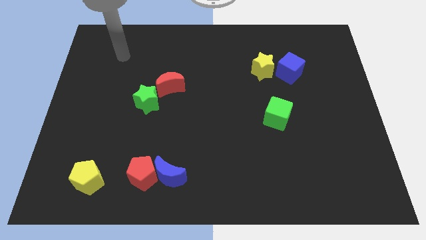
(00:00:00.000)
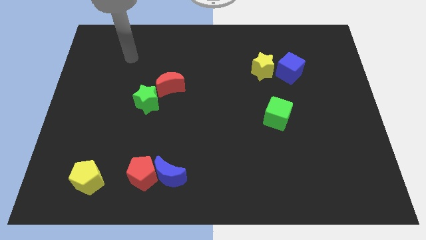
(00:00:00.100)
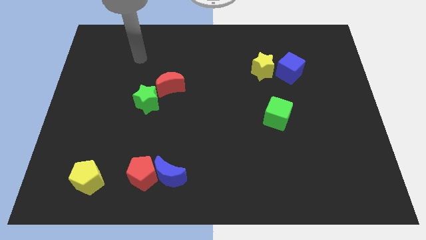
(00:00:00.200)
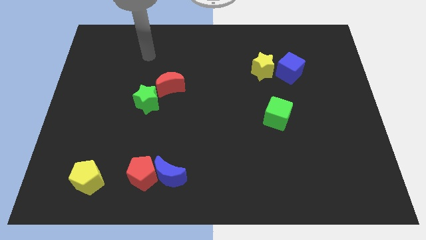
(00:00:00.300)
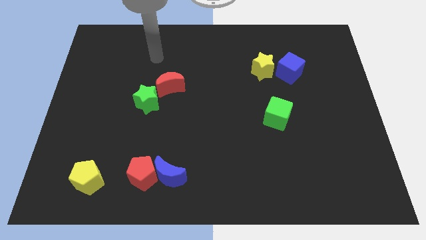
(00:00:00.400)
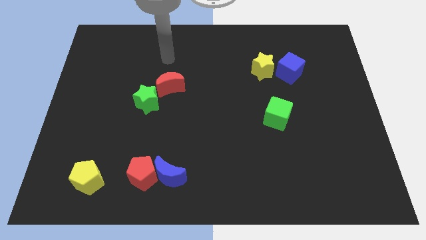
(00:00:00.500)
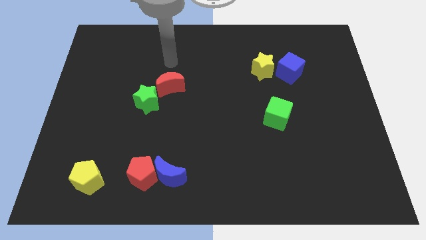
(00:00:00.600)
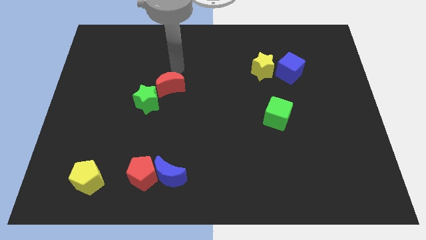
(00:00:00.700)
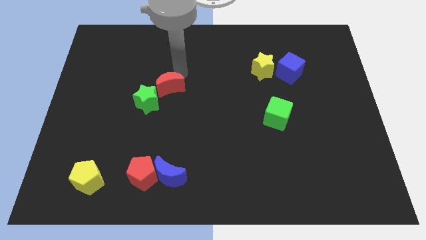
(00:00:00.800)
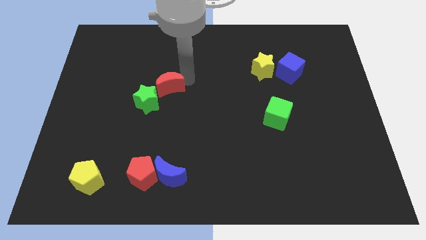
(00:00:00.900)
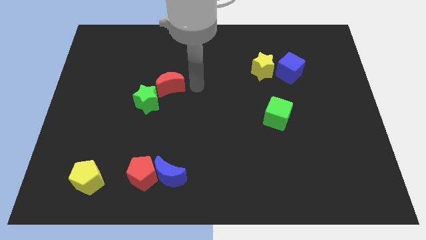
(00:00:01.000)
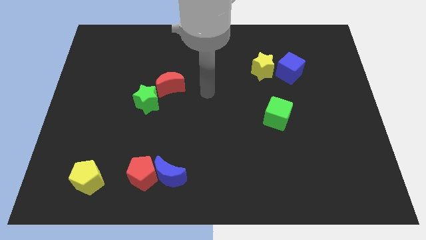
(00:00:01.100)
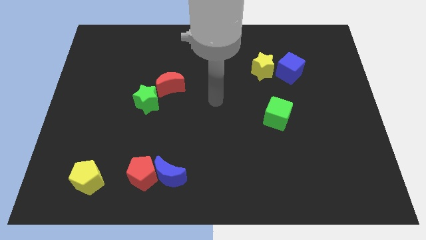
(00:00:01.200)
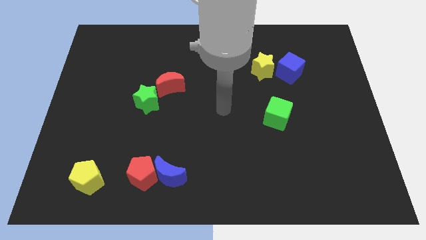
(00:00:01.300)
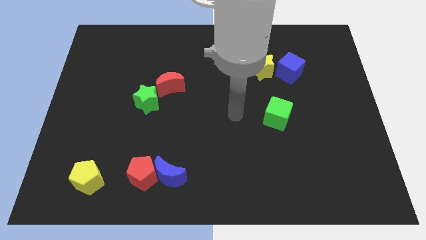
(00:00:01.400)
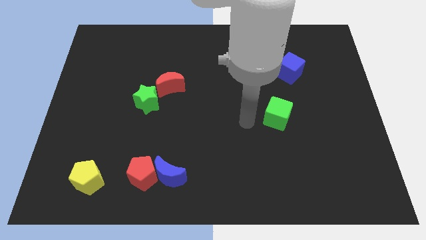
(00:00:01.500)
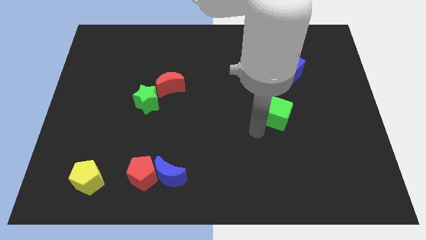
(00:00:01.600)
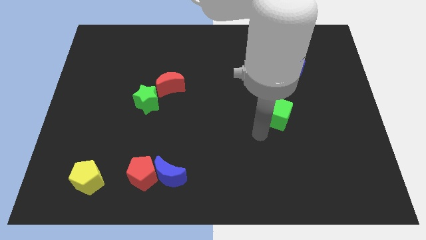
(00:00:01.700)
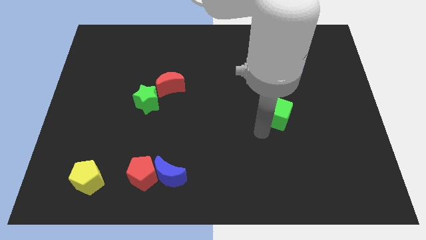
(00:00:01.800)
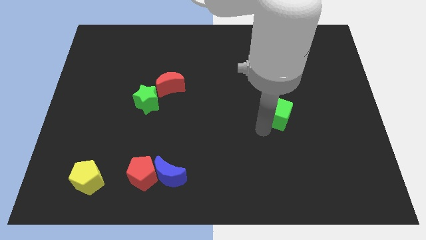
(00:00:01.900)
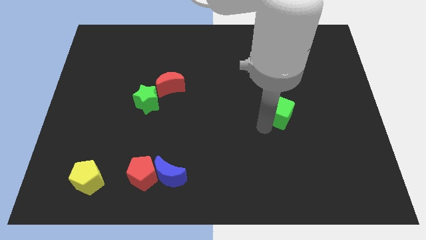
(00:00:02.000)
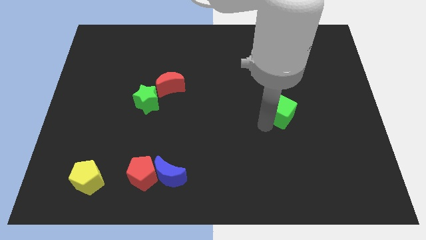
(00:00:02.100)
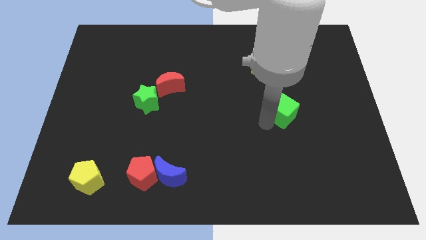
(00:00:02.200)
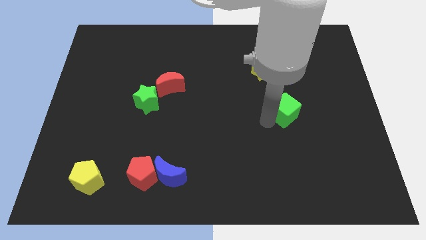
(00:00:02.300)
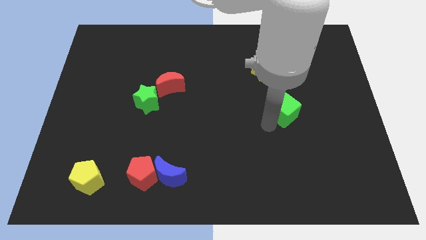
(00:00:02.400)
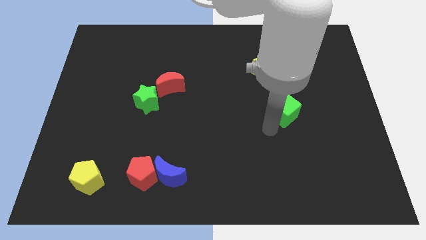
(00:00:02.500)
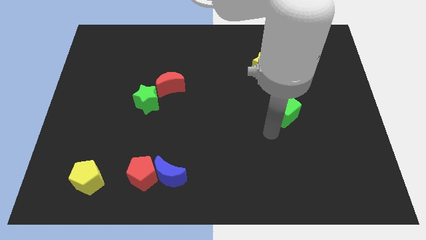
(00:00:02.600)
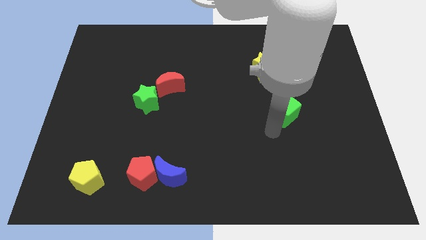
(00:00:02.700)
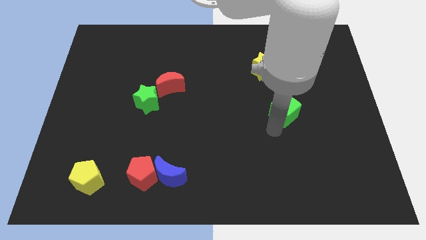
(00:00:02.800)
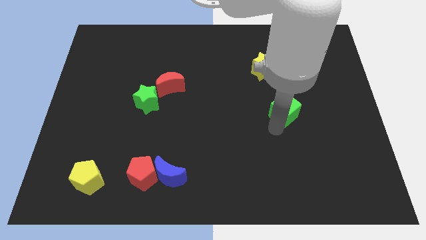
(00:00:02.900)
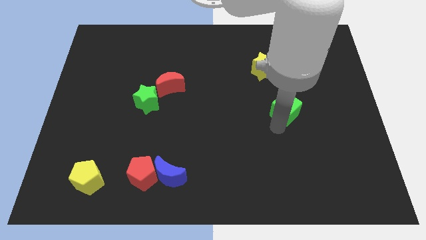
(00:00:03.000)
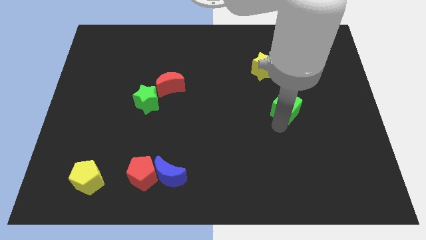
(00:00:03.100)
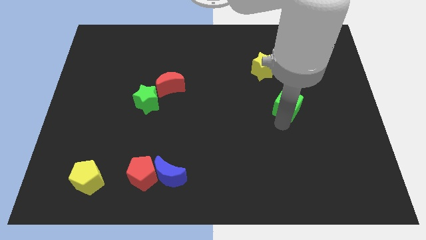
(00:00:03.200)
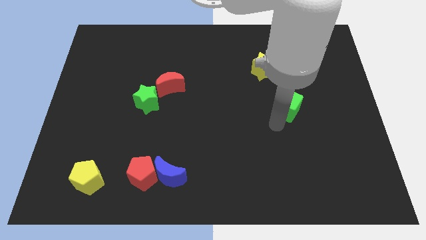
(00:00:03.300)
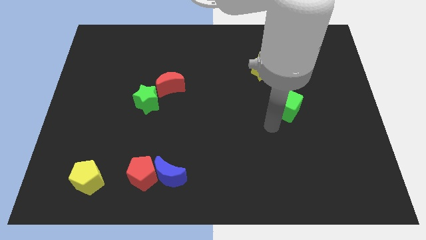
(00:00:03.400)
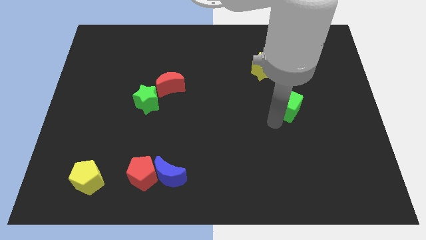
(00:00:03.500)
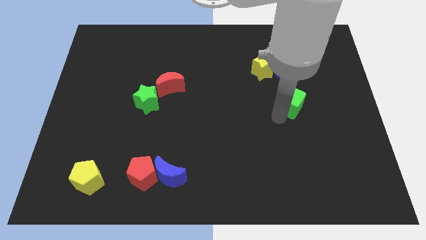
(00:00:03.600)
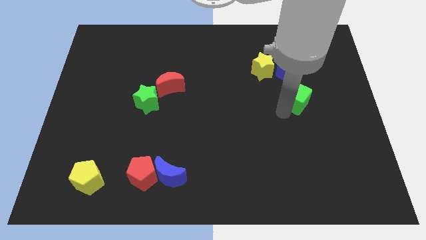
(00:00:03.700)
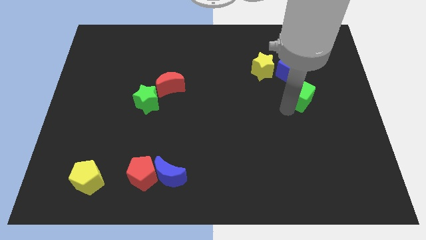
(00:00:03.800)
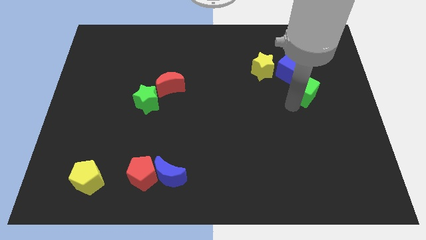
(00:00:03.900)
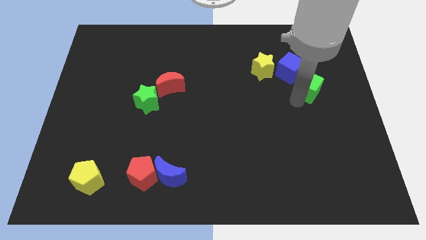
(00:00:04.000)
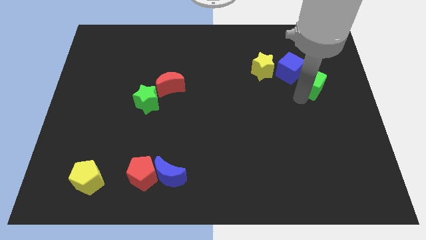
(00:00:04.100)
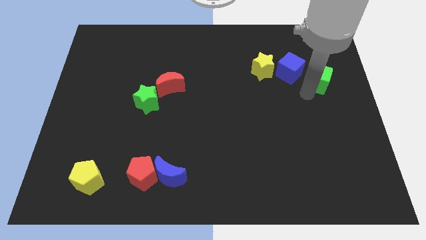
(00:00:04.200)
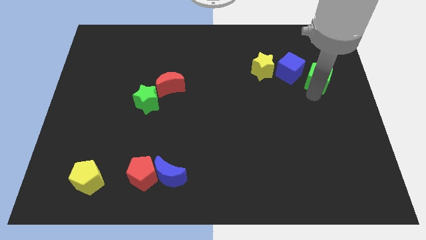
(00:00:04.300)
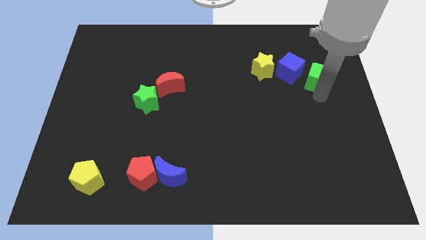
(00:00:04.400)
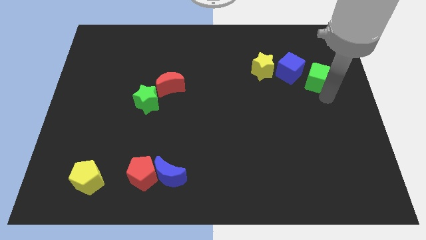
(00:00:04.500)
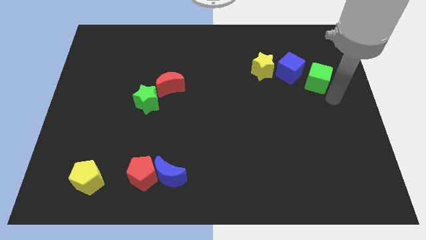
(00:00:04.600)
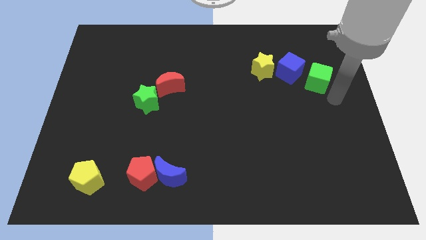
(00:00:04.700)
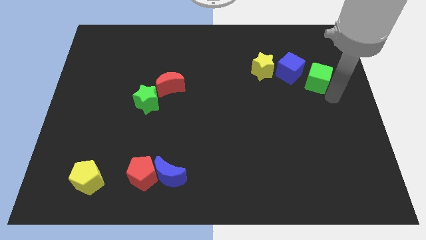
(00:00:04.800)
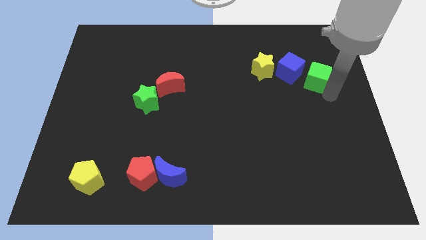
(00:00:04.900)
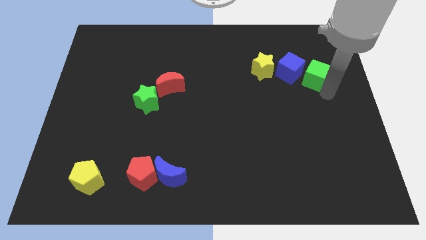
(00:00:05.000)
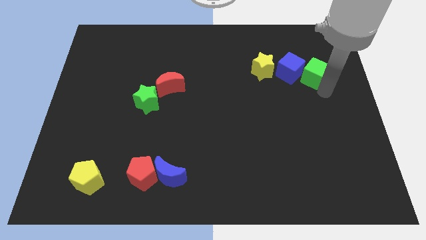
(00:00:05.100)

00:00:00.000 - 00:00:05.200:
slide the green cube a little upwards

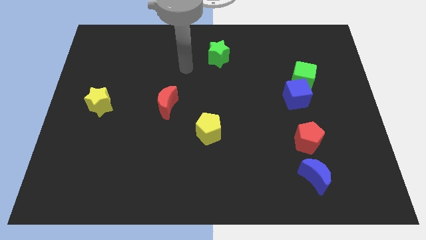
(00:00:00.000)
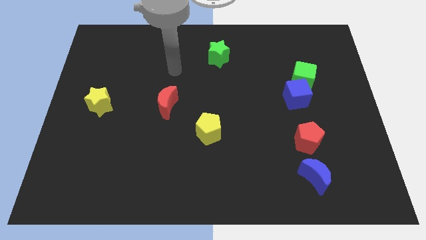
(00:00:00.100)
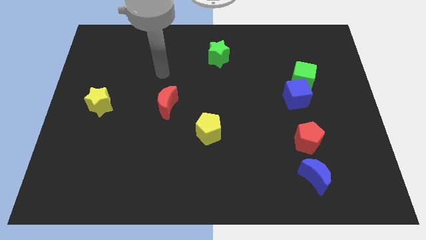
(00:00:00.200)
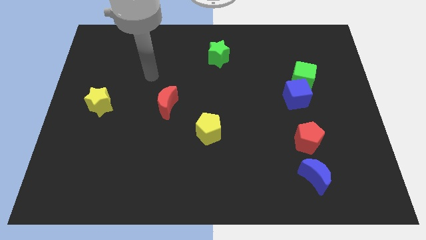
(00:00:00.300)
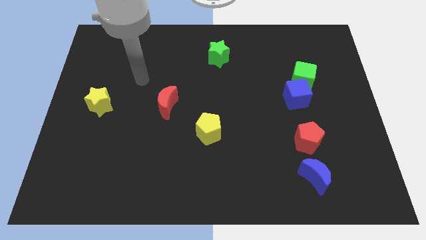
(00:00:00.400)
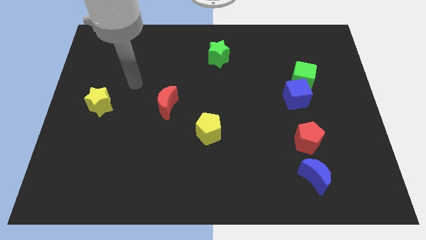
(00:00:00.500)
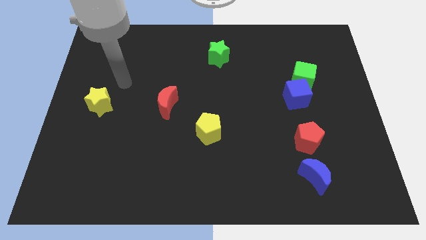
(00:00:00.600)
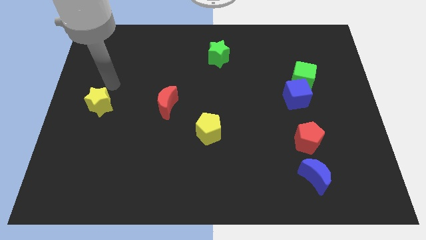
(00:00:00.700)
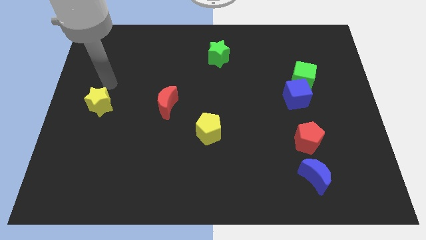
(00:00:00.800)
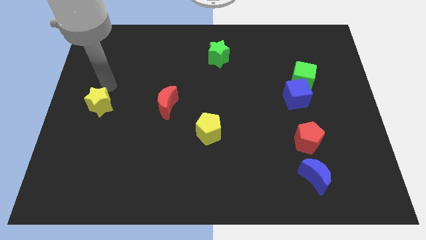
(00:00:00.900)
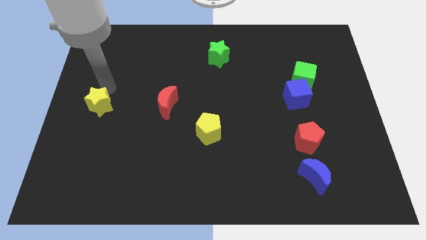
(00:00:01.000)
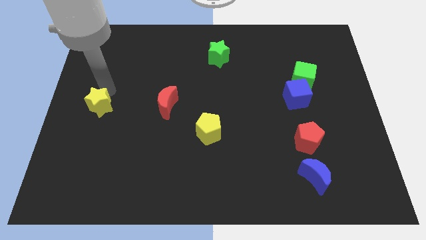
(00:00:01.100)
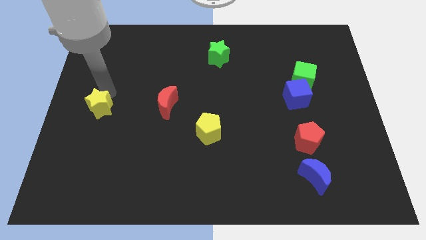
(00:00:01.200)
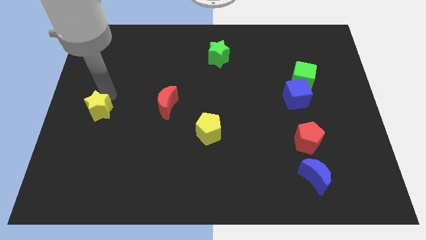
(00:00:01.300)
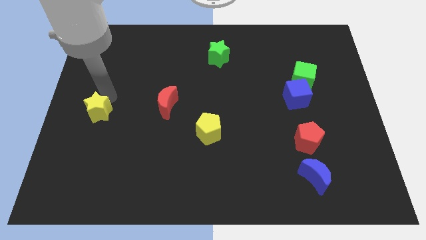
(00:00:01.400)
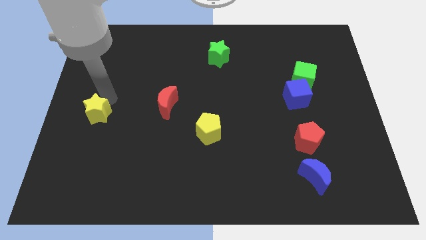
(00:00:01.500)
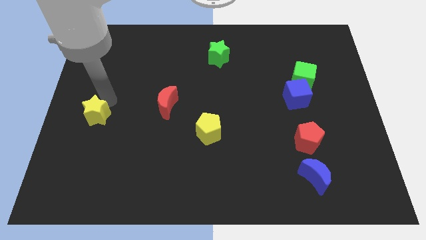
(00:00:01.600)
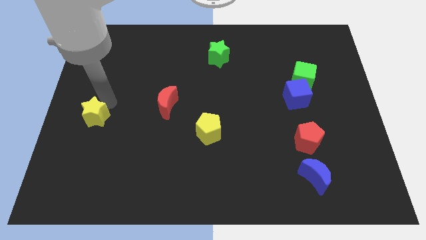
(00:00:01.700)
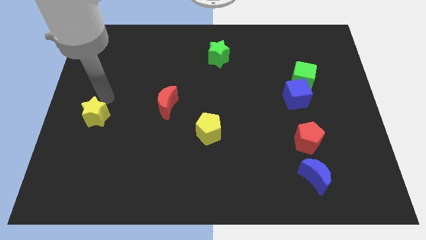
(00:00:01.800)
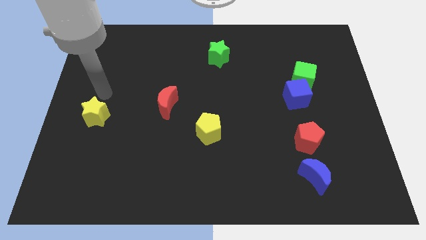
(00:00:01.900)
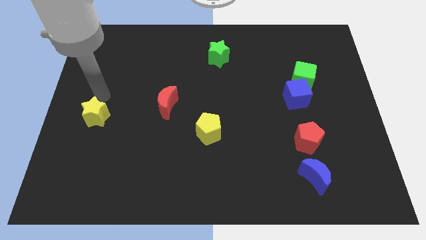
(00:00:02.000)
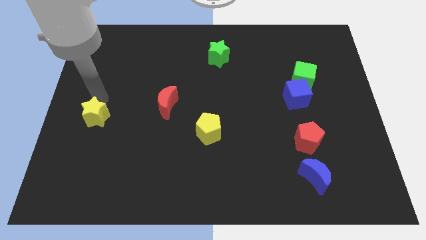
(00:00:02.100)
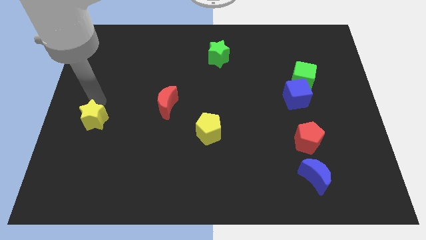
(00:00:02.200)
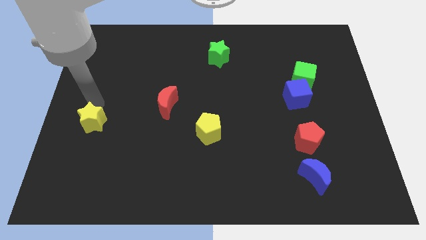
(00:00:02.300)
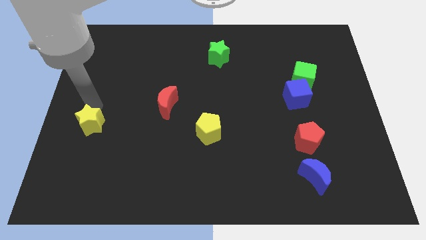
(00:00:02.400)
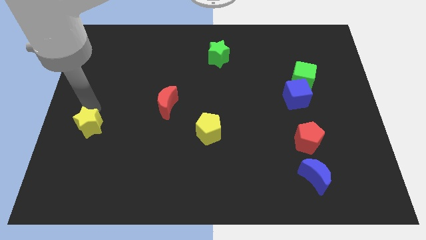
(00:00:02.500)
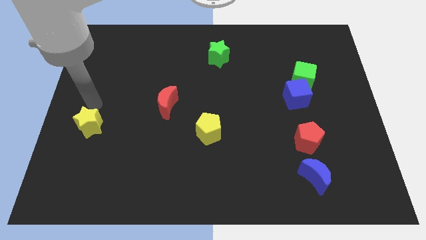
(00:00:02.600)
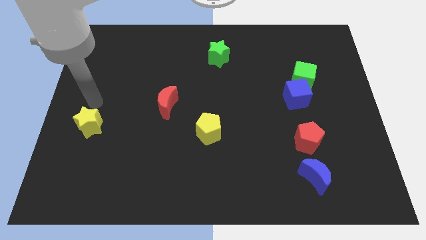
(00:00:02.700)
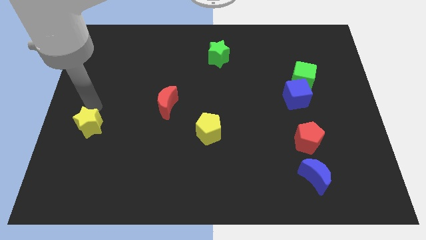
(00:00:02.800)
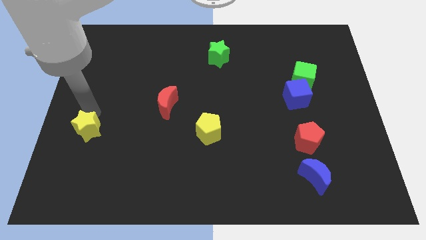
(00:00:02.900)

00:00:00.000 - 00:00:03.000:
slightly slide the yellow star downwards

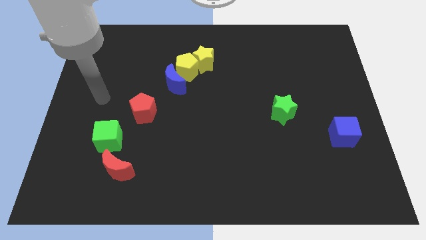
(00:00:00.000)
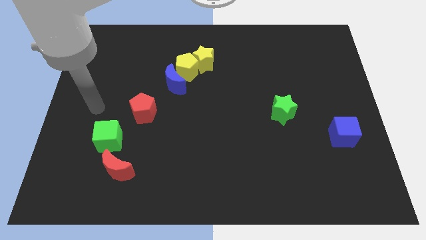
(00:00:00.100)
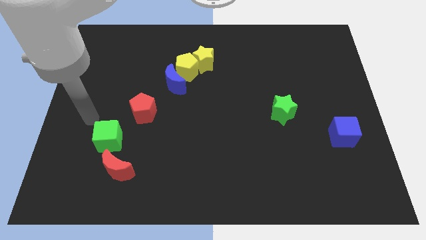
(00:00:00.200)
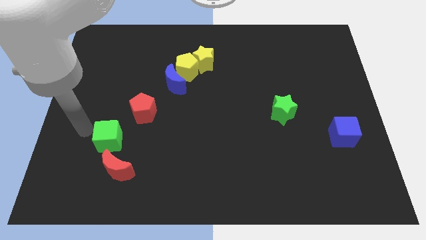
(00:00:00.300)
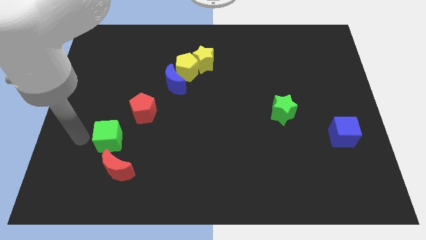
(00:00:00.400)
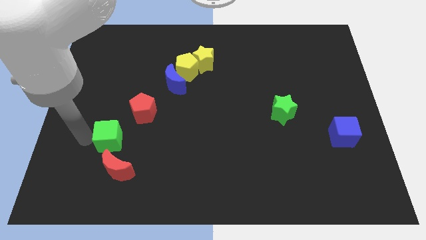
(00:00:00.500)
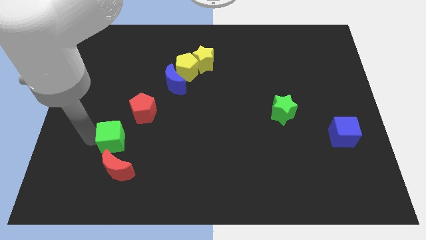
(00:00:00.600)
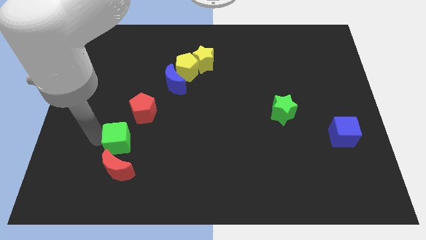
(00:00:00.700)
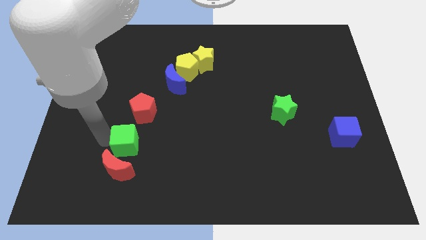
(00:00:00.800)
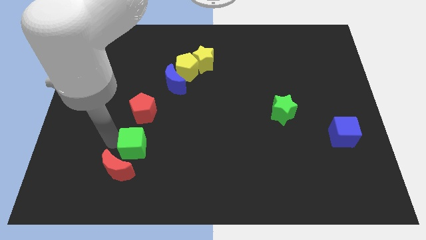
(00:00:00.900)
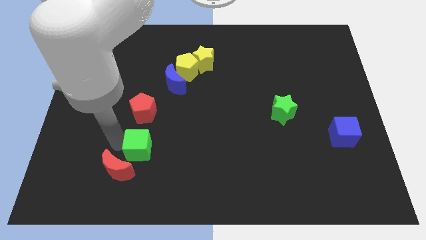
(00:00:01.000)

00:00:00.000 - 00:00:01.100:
move the green cube right a little
